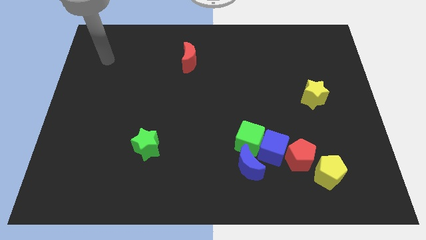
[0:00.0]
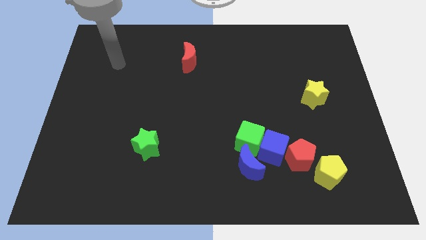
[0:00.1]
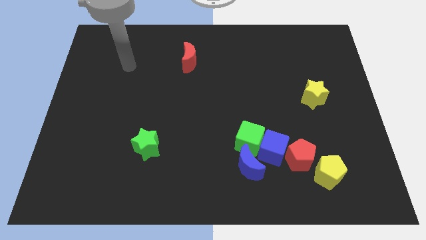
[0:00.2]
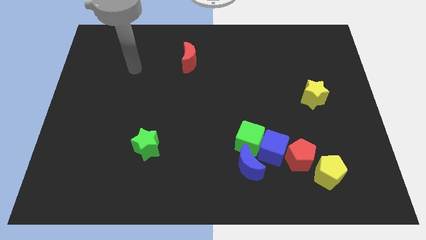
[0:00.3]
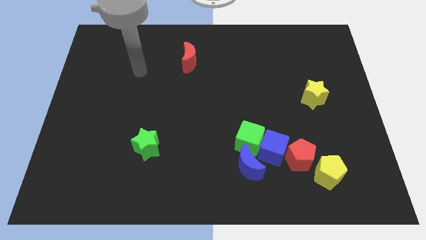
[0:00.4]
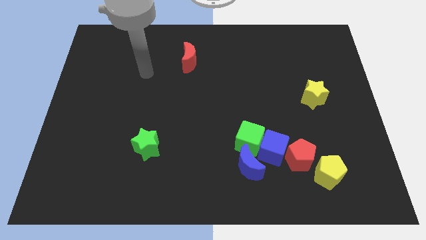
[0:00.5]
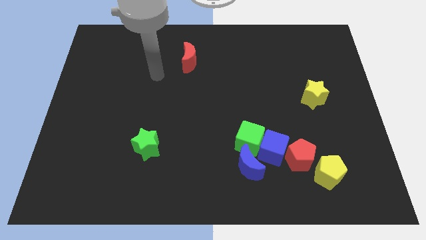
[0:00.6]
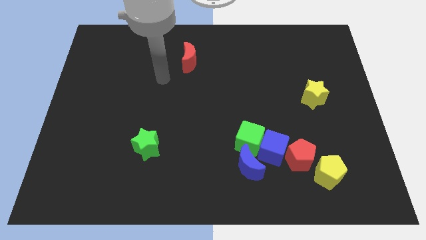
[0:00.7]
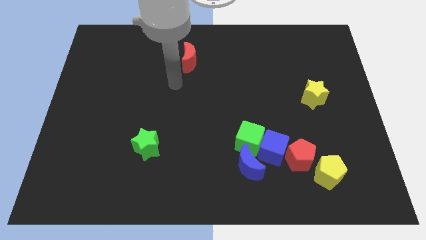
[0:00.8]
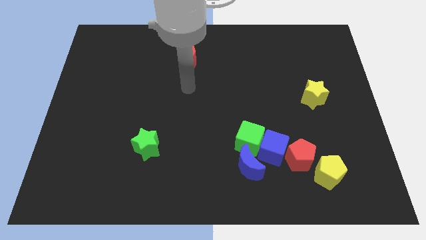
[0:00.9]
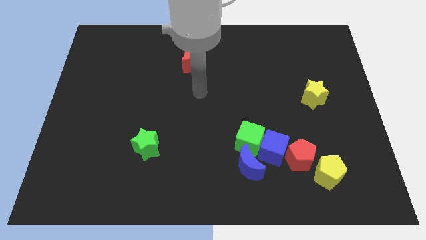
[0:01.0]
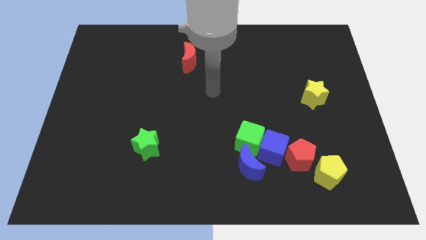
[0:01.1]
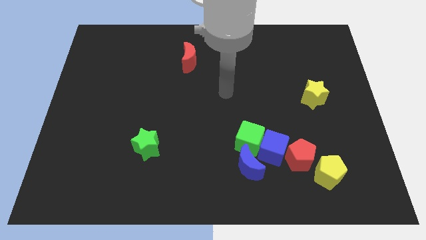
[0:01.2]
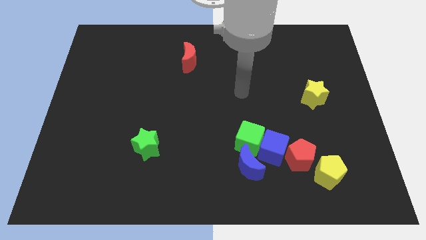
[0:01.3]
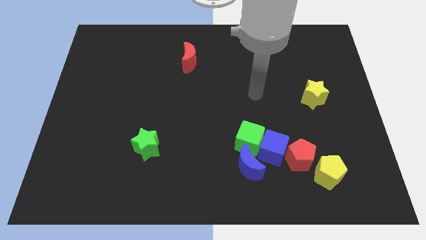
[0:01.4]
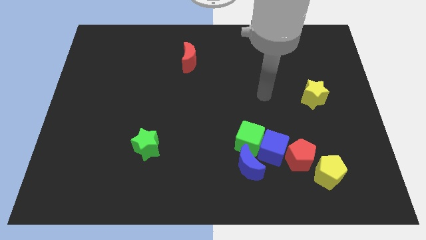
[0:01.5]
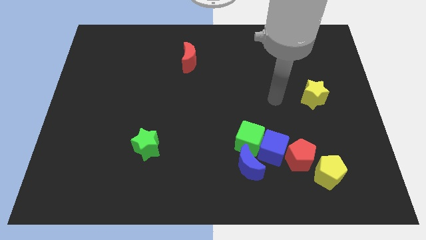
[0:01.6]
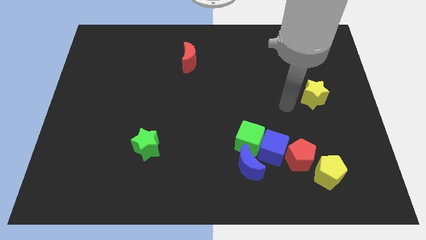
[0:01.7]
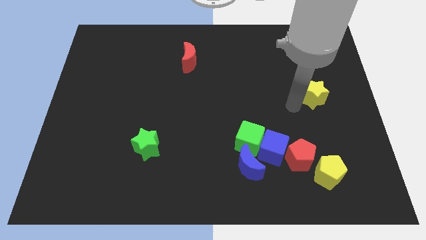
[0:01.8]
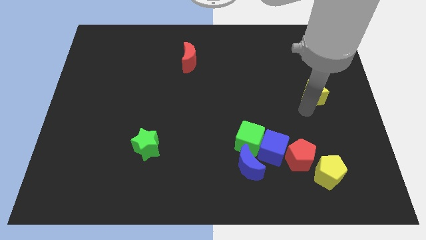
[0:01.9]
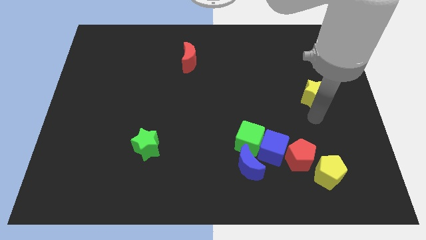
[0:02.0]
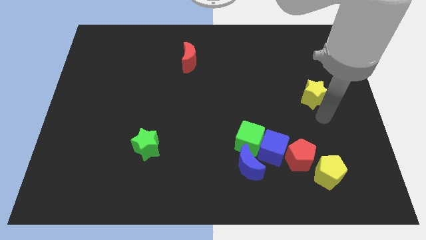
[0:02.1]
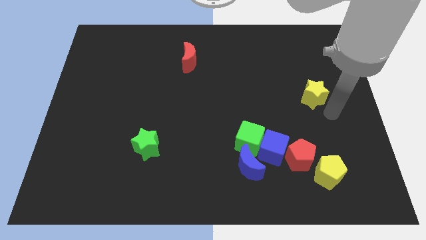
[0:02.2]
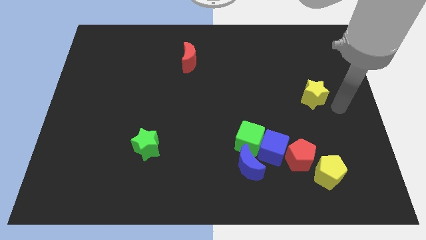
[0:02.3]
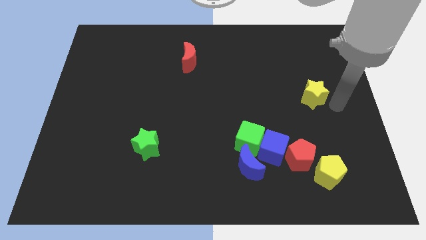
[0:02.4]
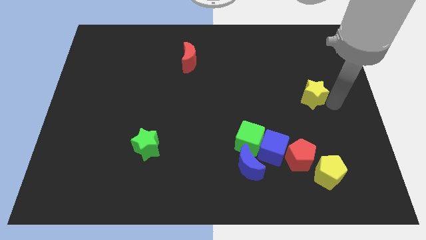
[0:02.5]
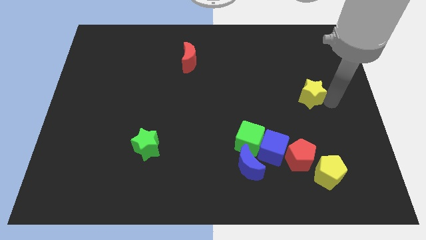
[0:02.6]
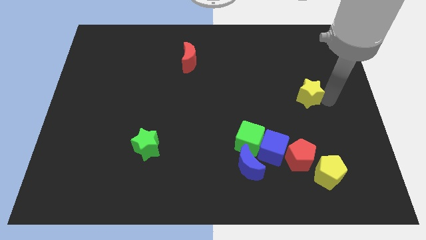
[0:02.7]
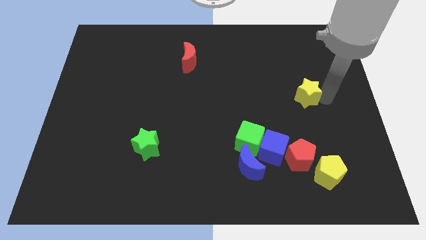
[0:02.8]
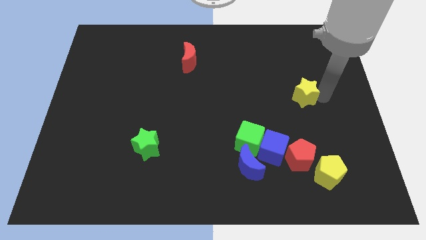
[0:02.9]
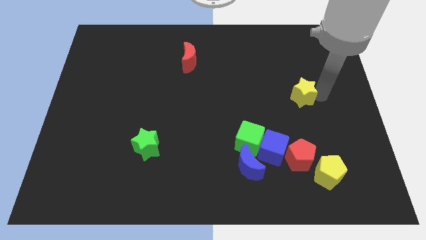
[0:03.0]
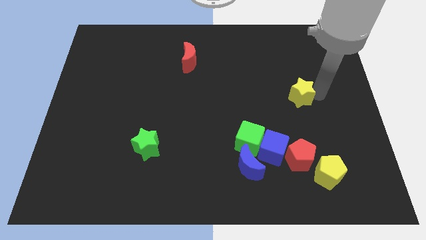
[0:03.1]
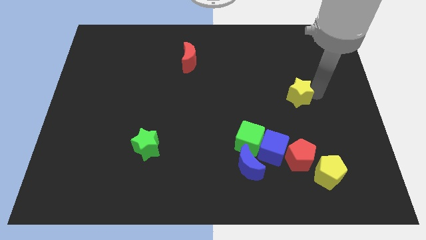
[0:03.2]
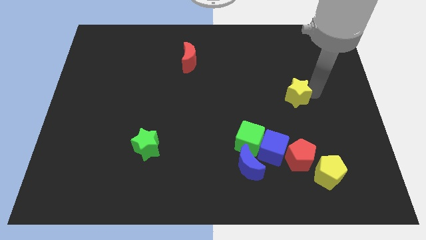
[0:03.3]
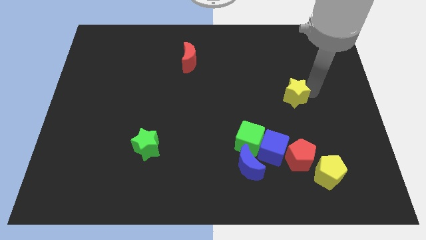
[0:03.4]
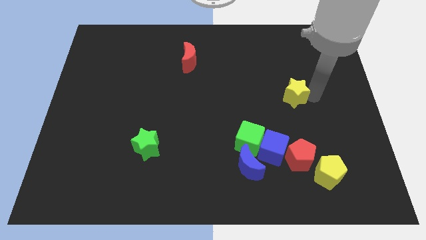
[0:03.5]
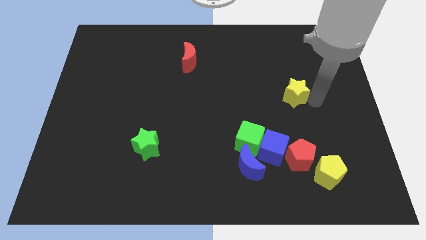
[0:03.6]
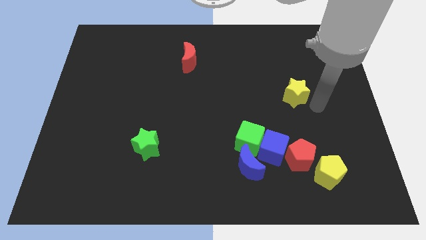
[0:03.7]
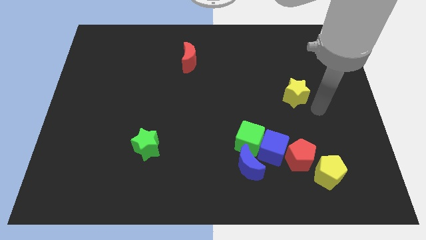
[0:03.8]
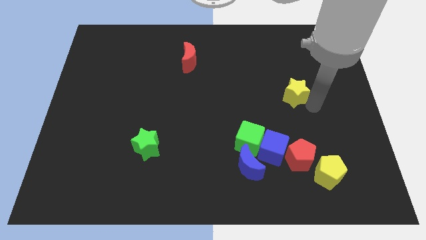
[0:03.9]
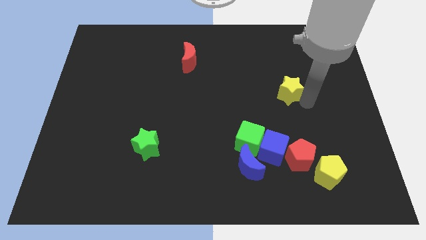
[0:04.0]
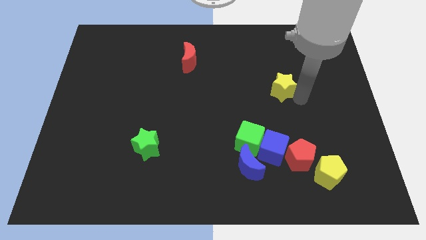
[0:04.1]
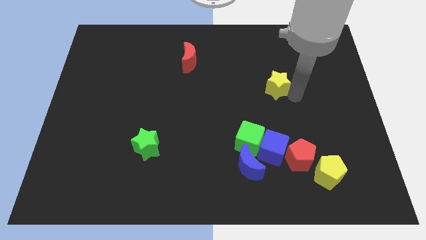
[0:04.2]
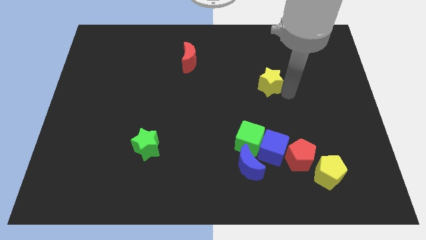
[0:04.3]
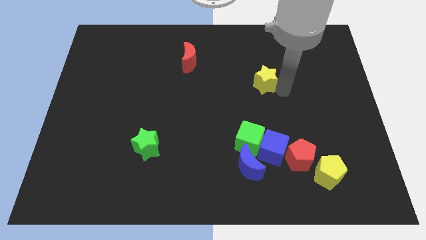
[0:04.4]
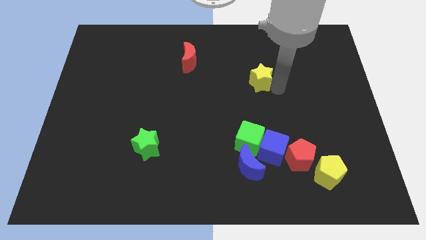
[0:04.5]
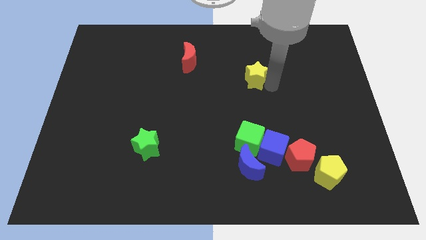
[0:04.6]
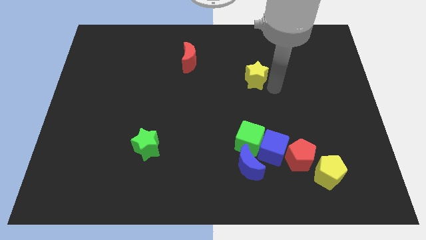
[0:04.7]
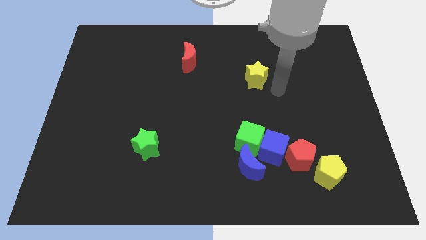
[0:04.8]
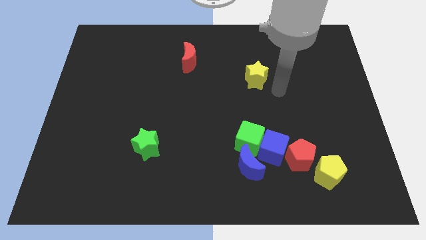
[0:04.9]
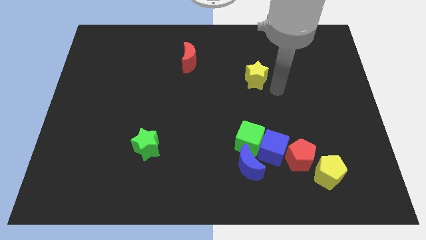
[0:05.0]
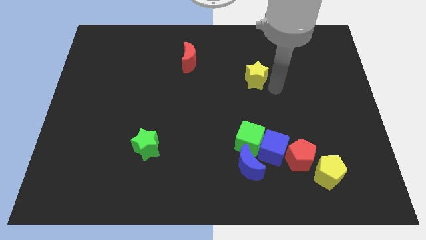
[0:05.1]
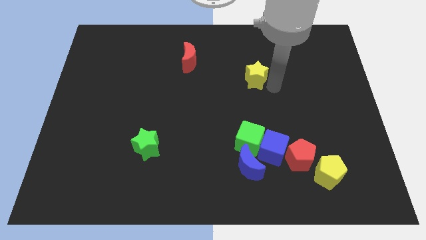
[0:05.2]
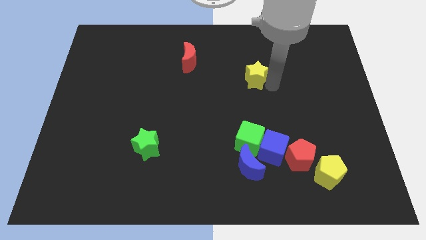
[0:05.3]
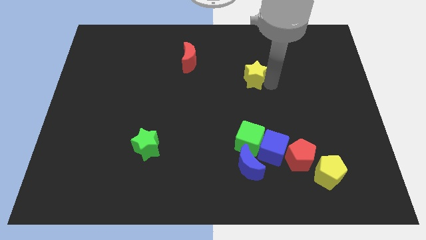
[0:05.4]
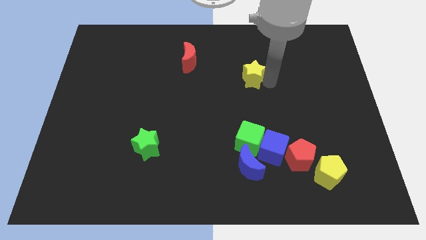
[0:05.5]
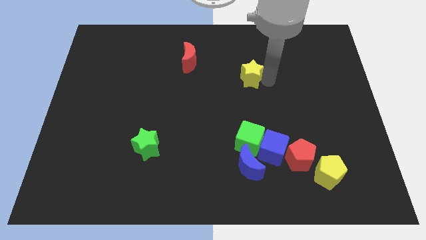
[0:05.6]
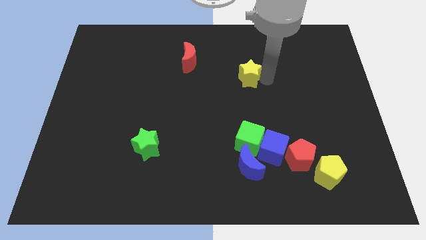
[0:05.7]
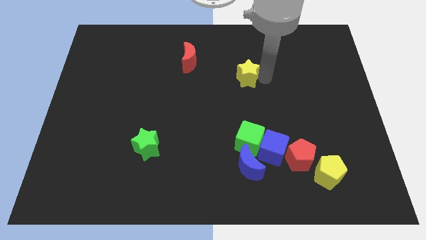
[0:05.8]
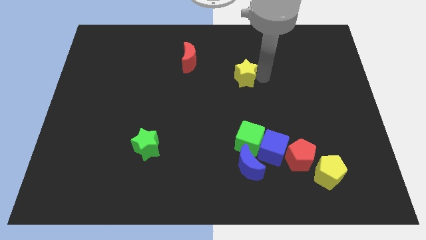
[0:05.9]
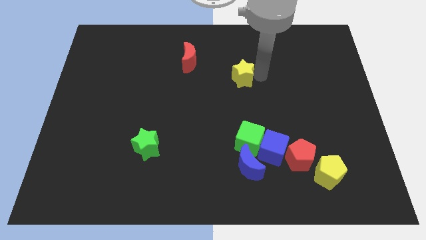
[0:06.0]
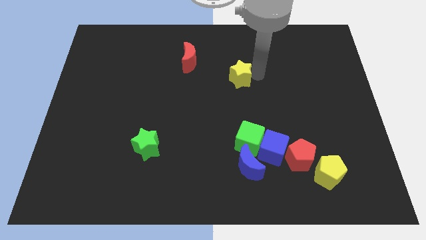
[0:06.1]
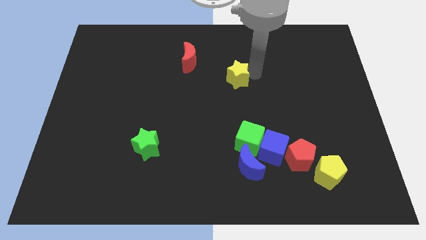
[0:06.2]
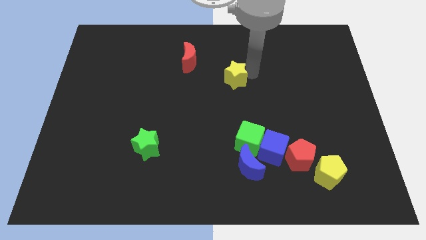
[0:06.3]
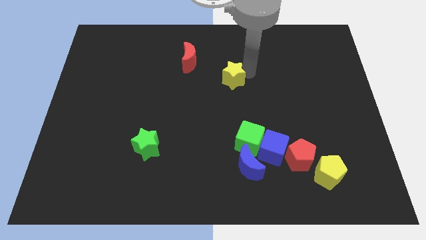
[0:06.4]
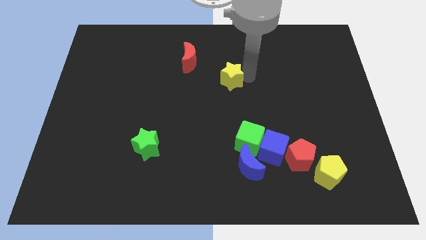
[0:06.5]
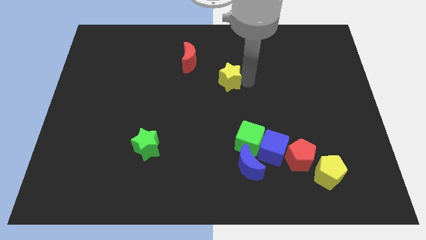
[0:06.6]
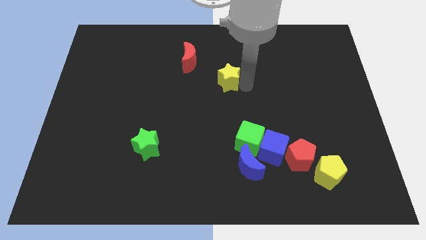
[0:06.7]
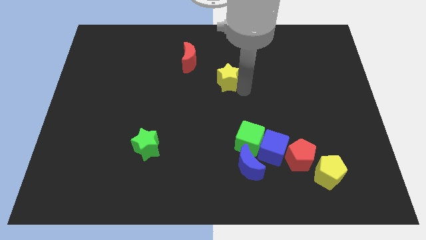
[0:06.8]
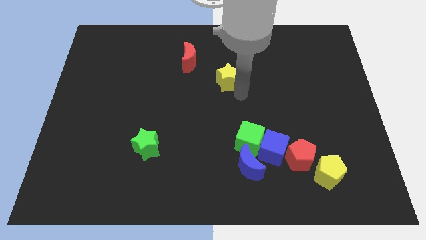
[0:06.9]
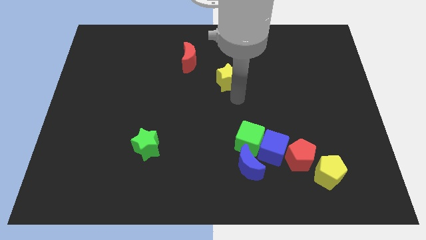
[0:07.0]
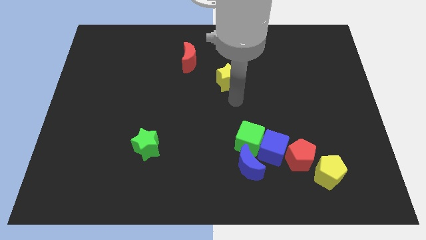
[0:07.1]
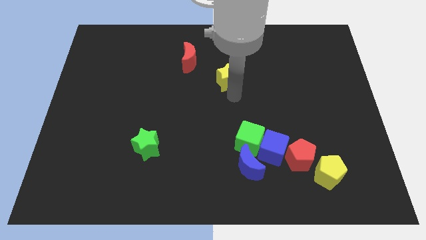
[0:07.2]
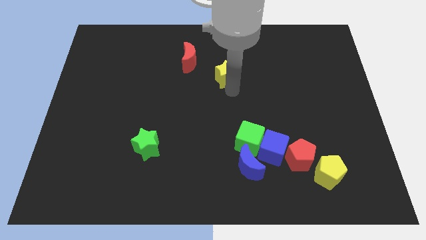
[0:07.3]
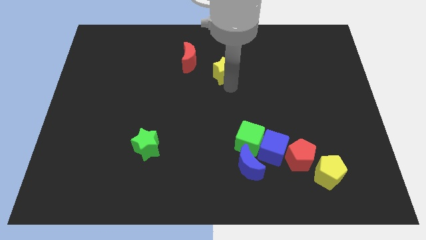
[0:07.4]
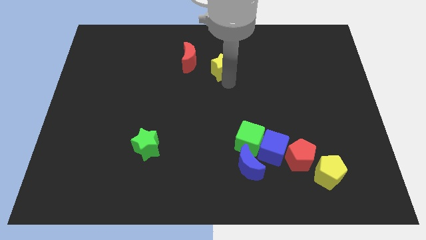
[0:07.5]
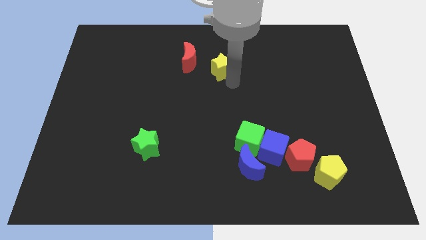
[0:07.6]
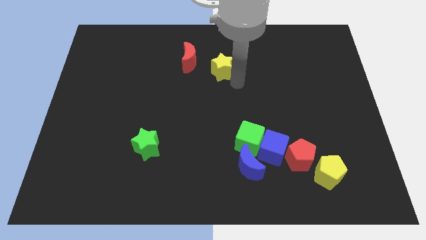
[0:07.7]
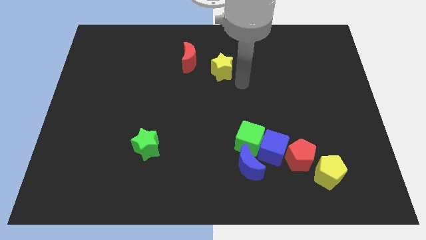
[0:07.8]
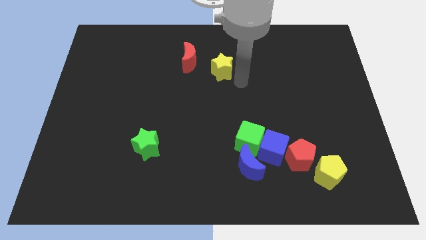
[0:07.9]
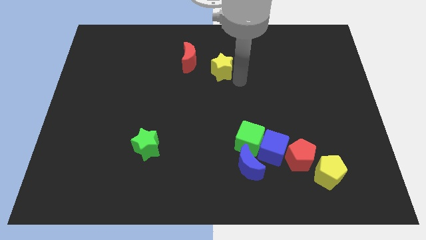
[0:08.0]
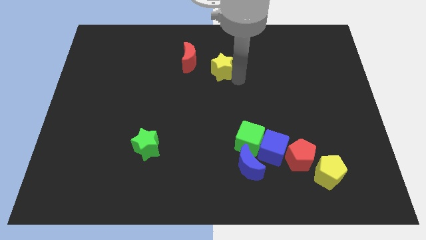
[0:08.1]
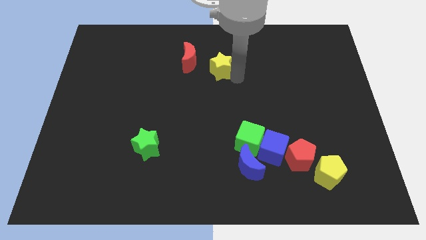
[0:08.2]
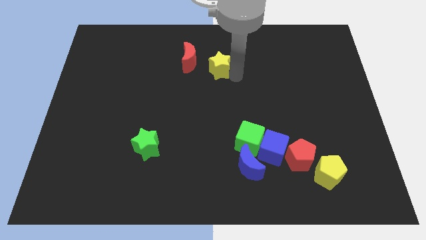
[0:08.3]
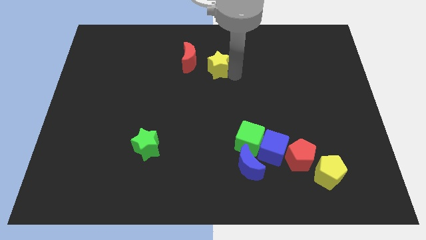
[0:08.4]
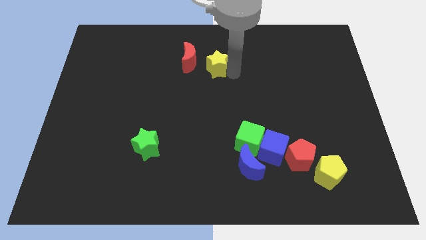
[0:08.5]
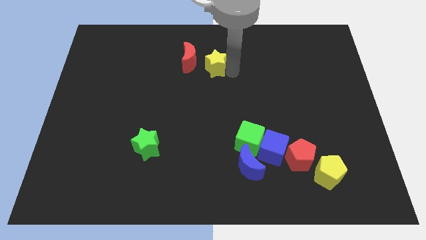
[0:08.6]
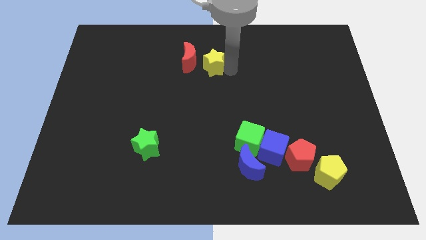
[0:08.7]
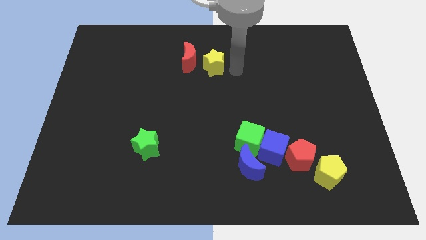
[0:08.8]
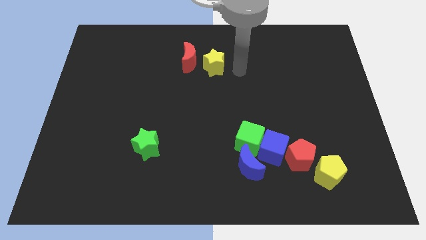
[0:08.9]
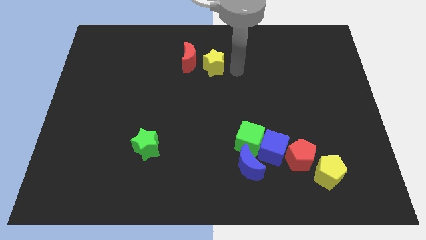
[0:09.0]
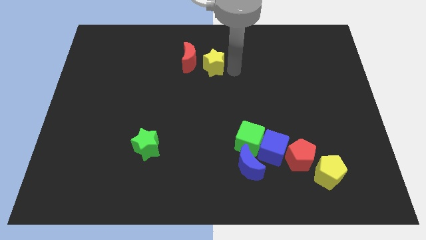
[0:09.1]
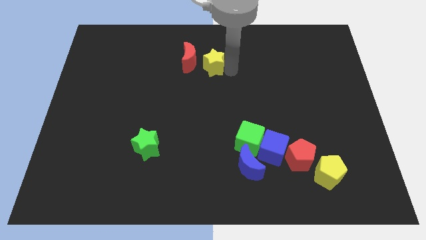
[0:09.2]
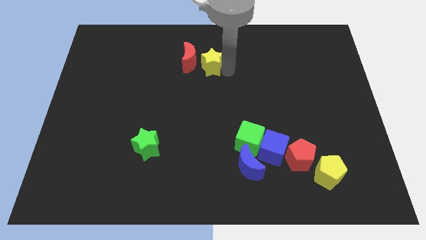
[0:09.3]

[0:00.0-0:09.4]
move the yellow star towards the red moon
